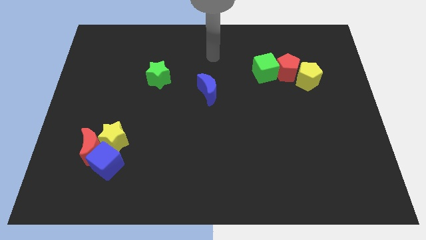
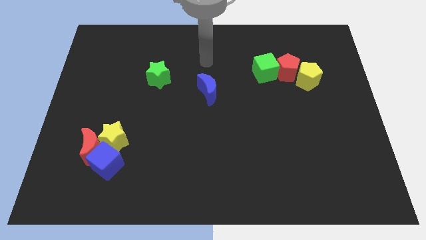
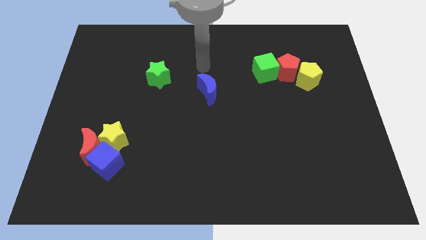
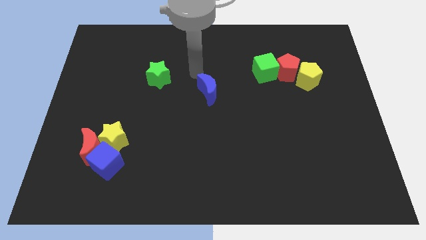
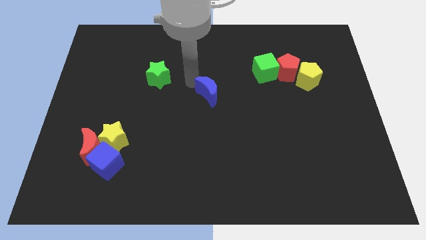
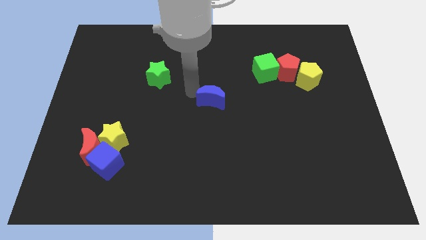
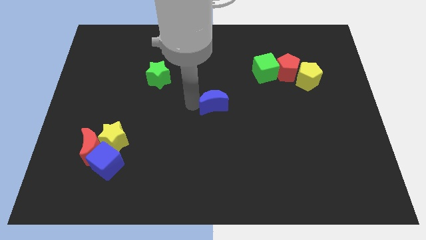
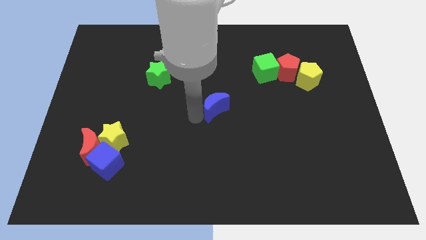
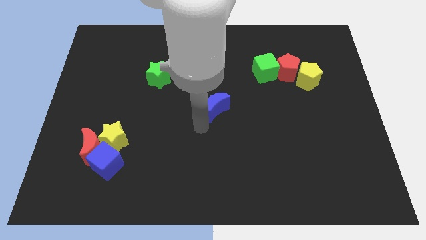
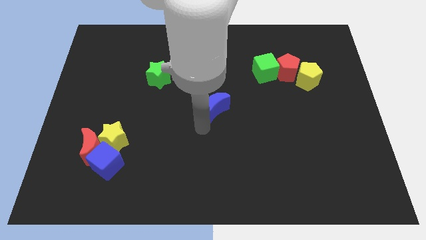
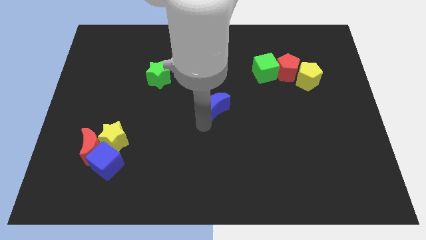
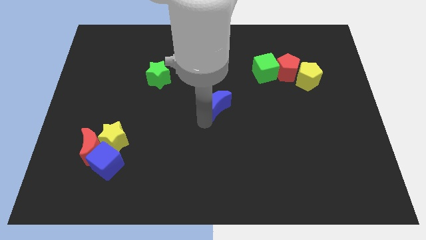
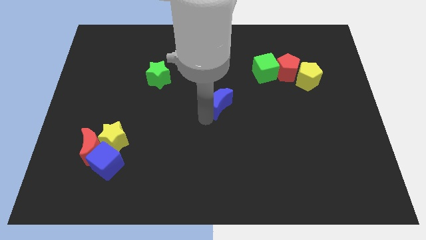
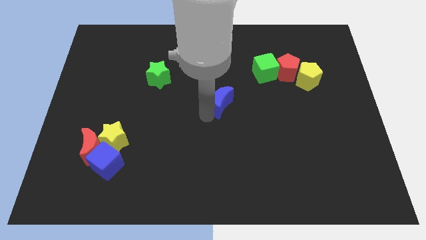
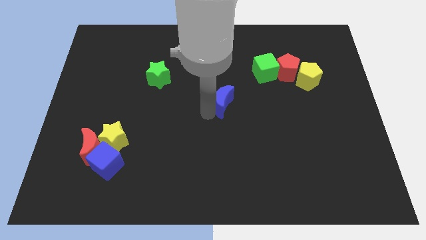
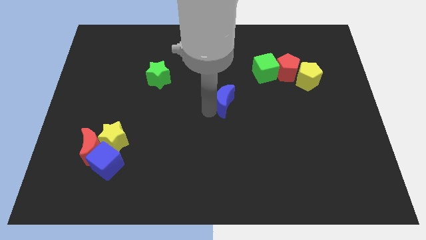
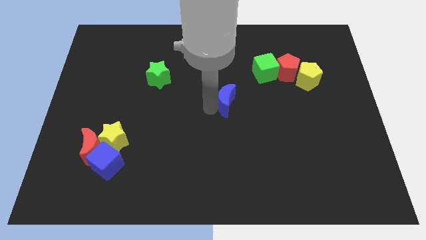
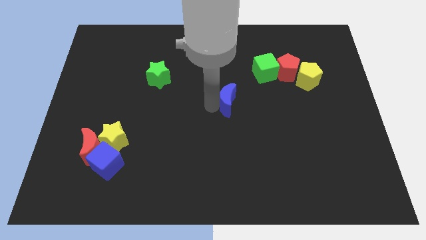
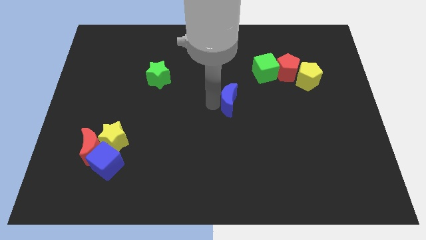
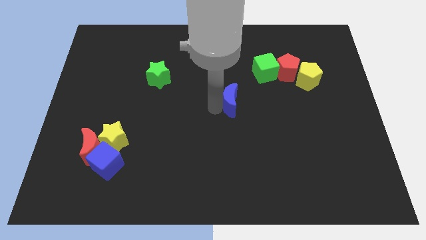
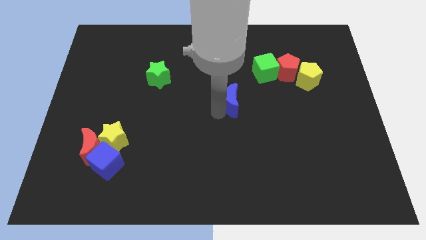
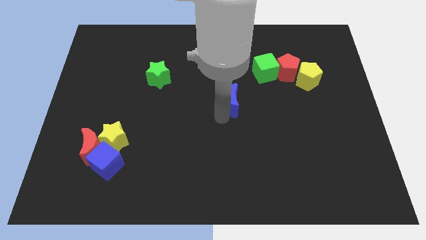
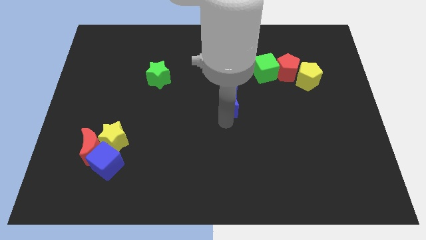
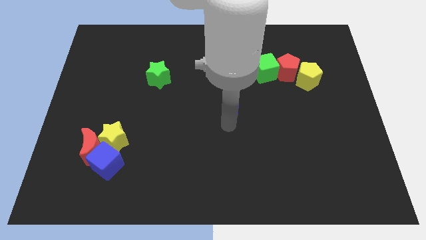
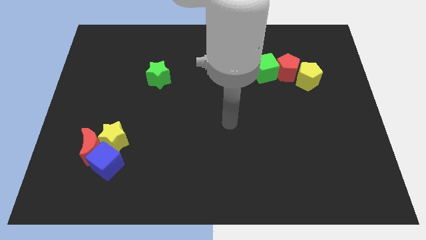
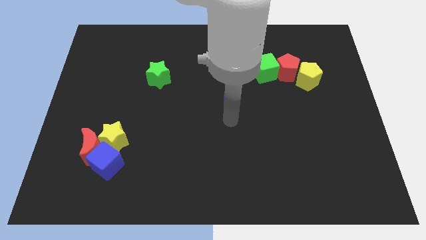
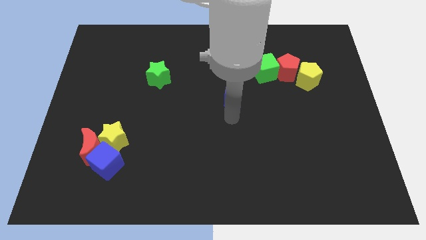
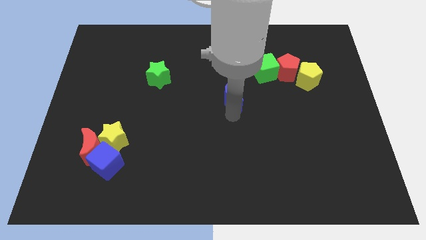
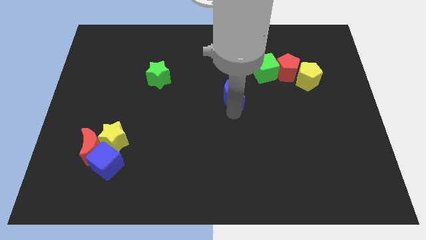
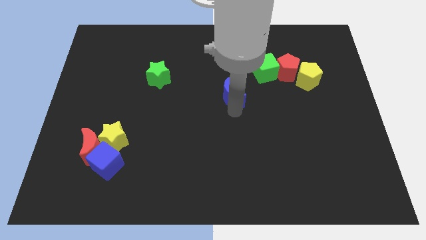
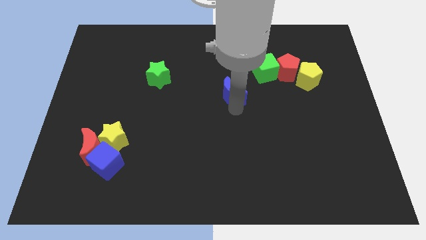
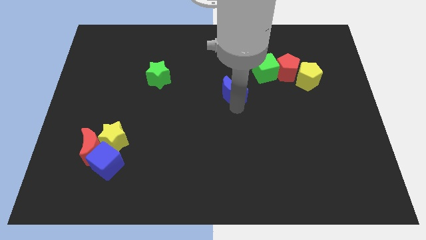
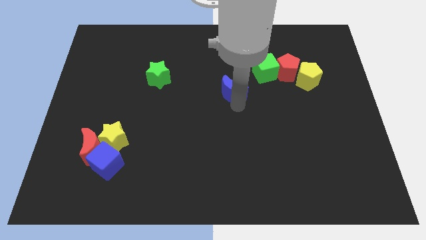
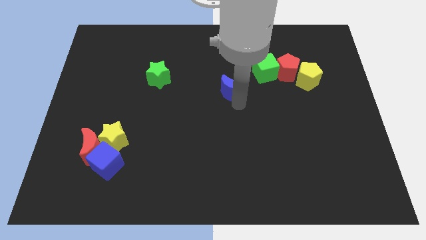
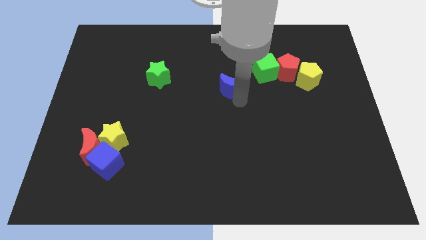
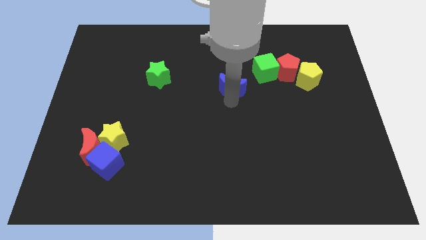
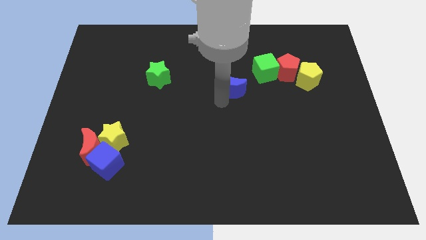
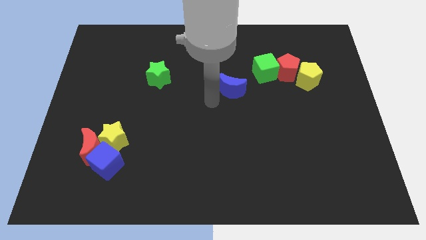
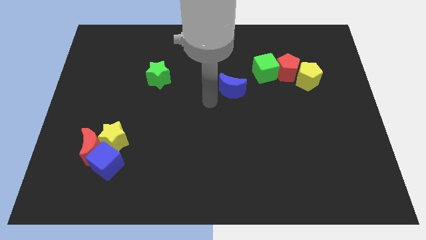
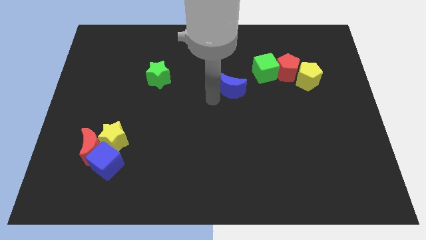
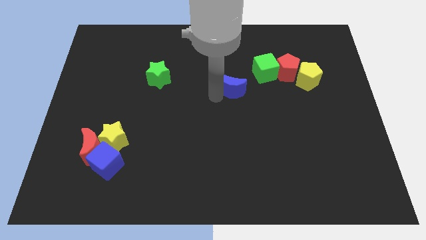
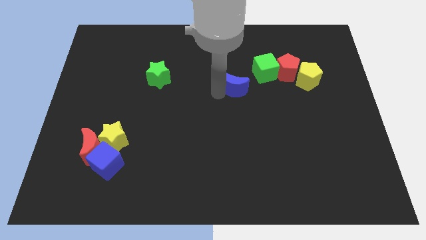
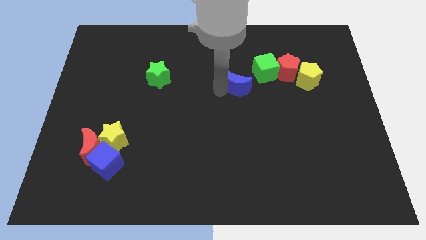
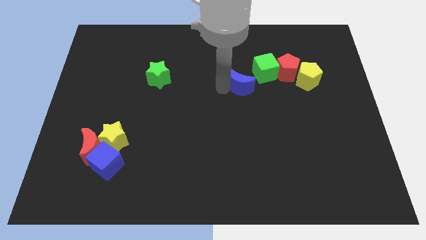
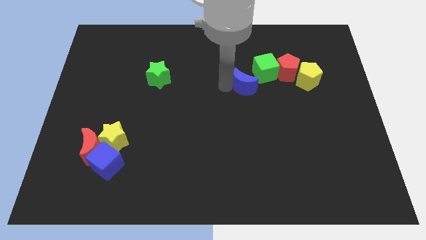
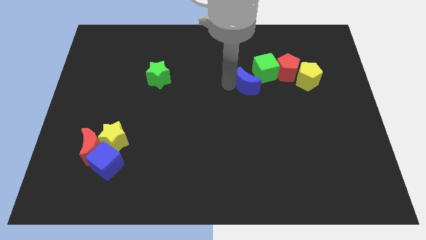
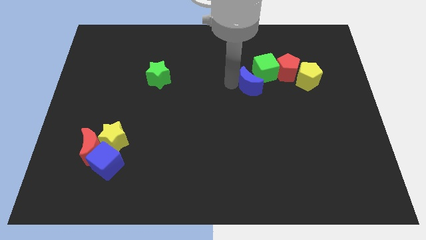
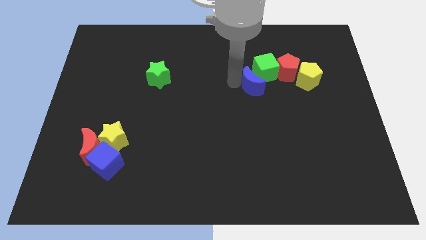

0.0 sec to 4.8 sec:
slide the blue moon next to the green cube

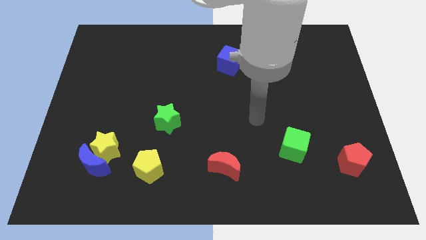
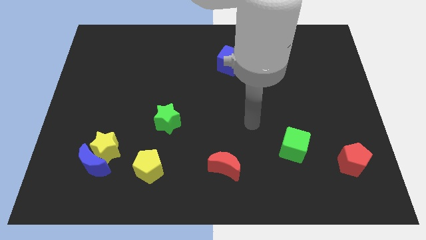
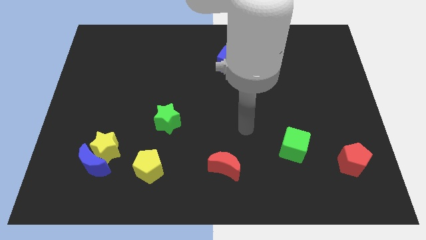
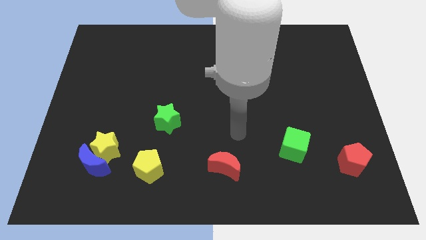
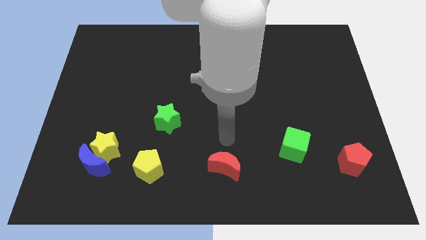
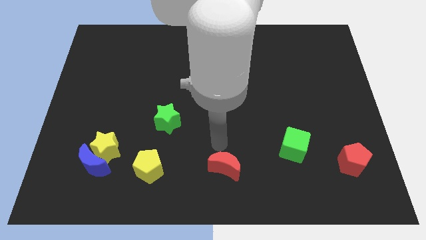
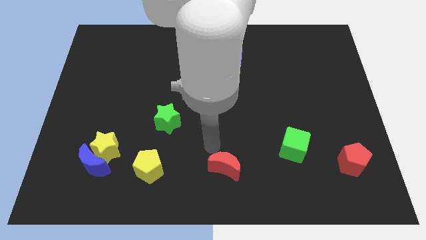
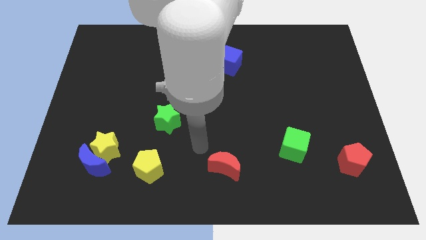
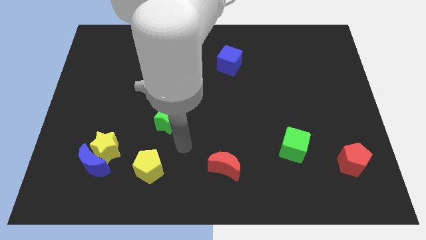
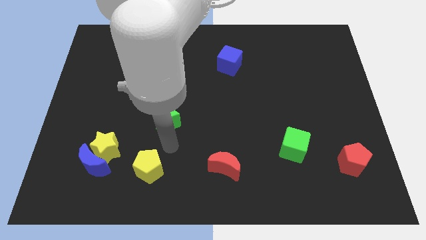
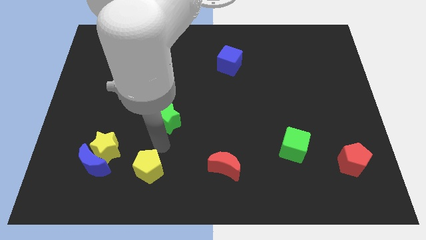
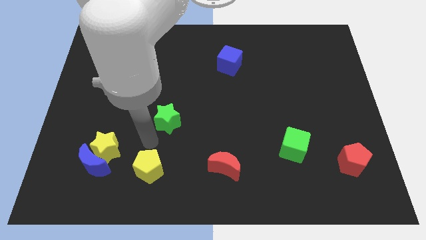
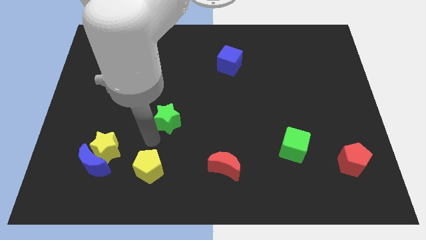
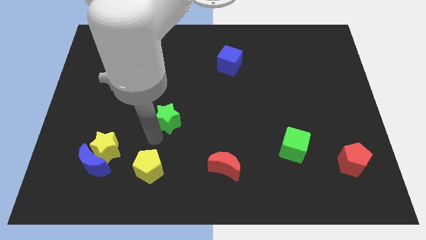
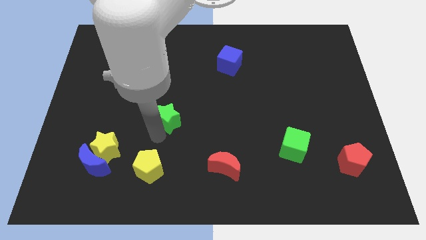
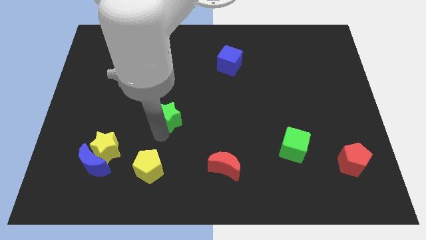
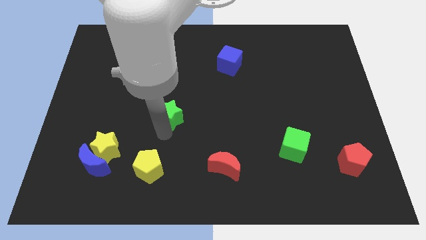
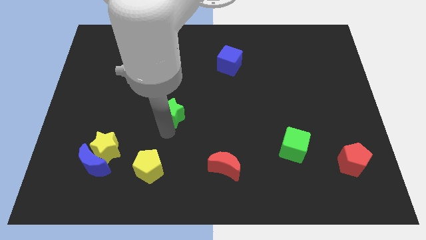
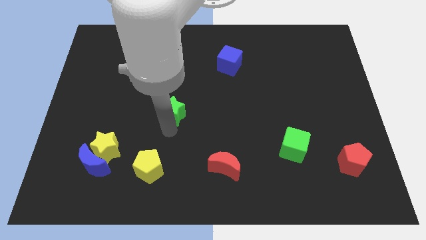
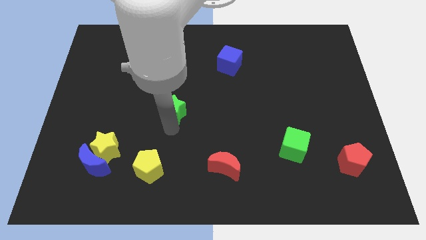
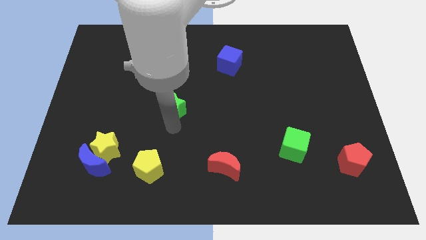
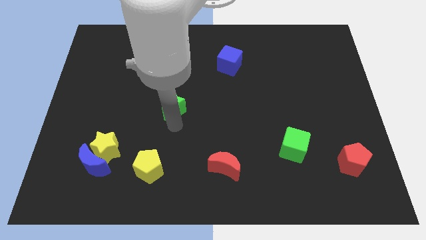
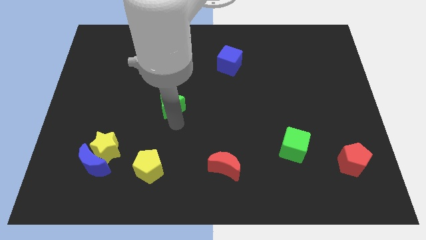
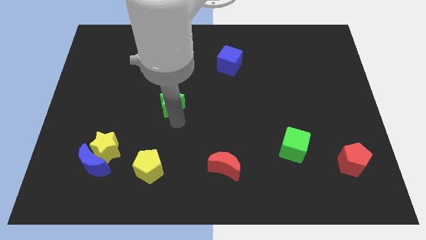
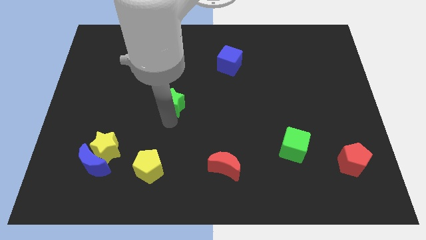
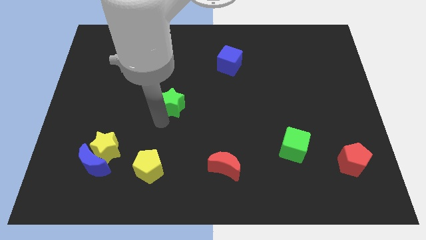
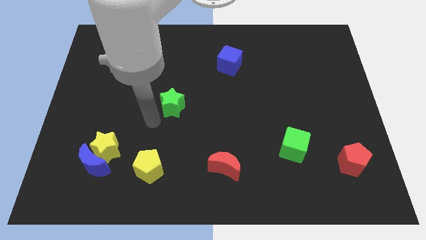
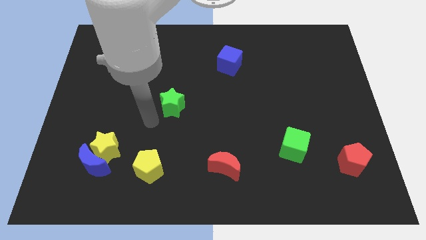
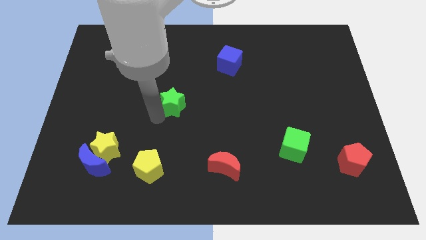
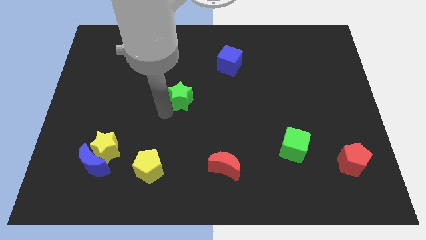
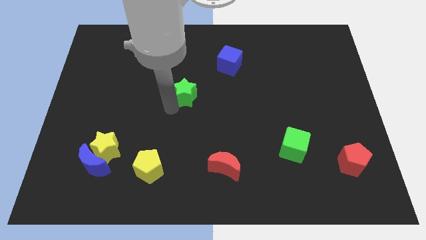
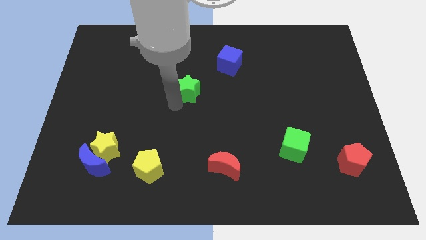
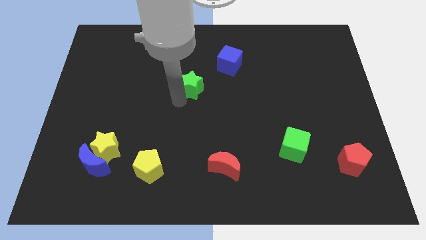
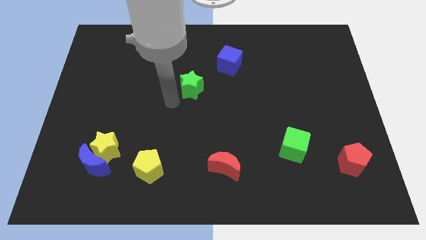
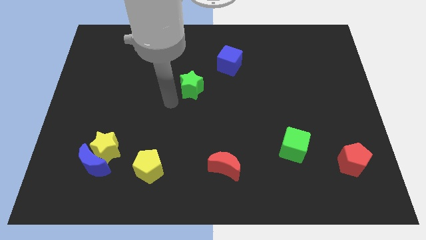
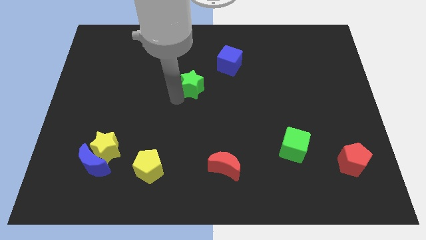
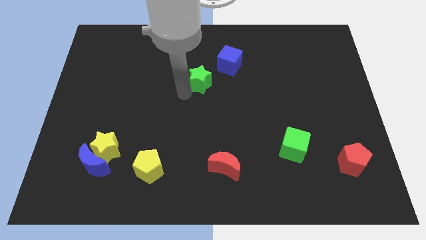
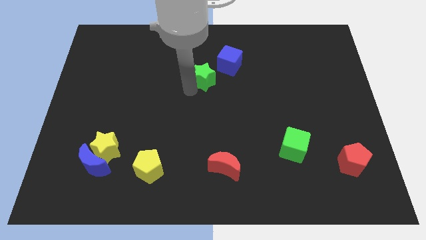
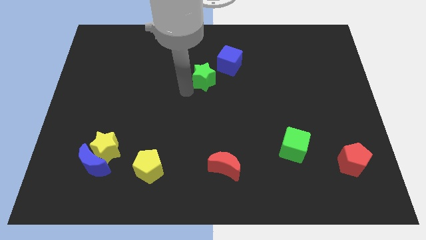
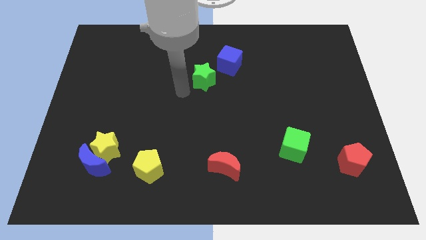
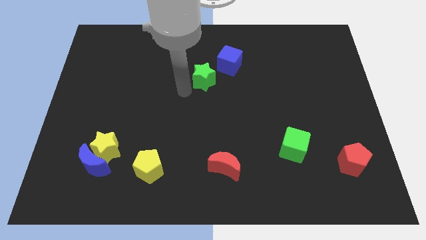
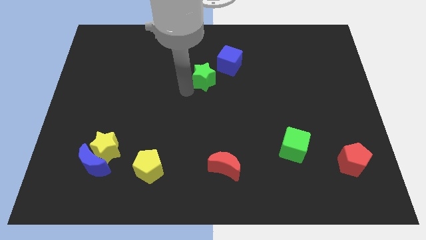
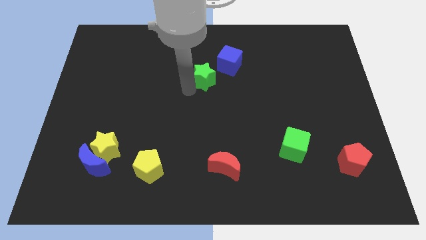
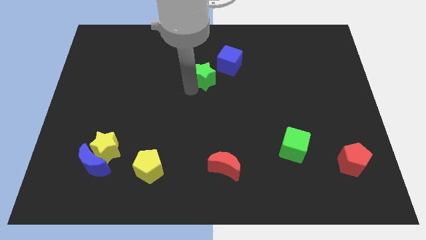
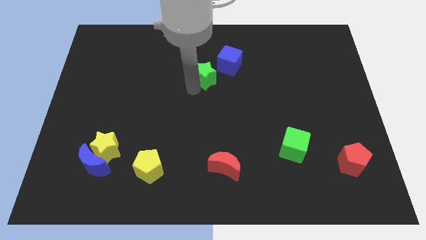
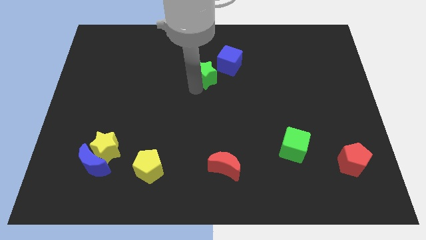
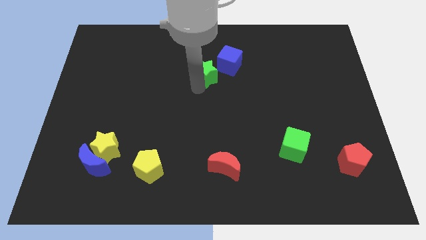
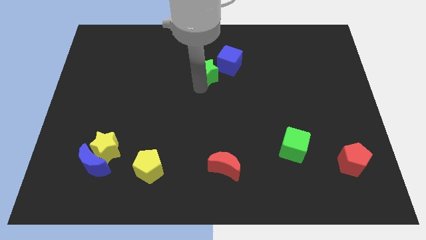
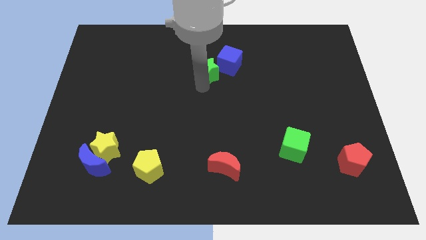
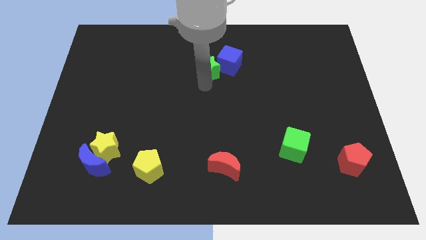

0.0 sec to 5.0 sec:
move the green star close to the blue cube
